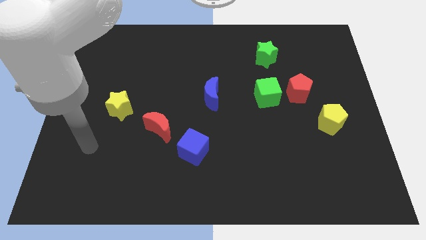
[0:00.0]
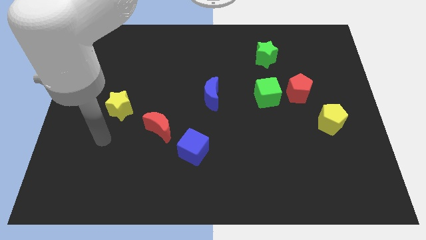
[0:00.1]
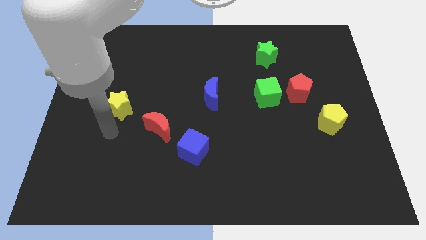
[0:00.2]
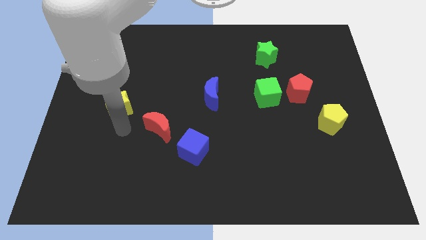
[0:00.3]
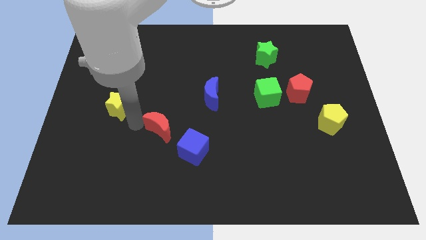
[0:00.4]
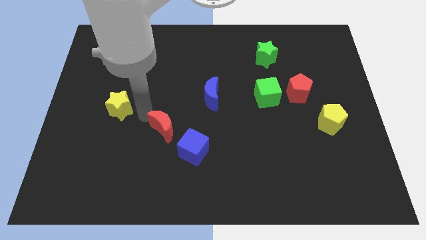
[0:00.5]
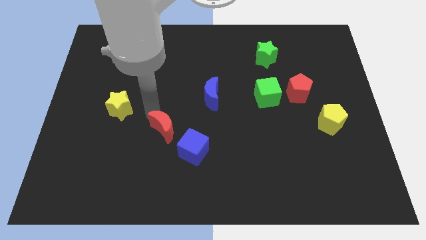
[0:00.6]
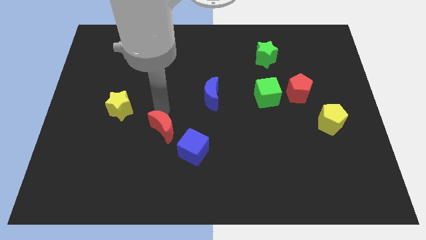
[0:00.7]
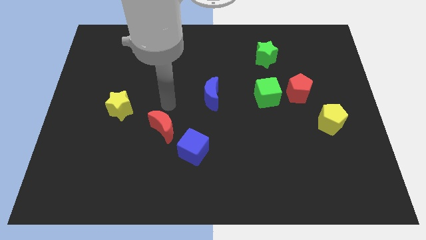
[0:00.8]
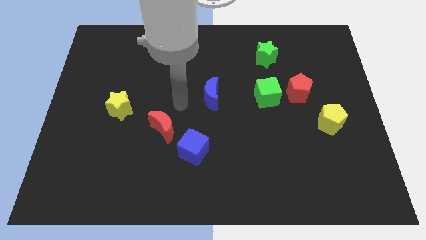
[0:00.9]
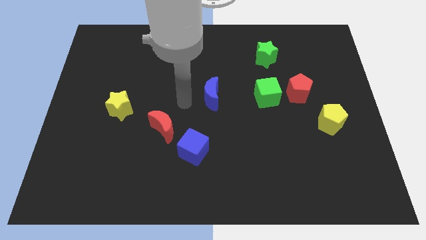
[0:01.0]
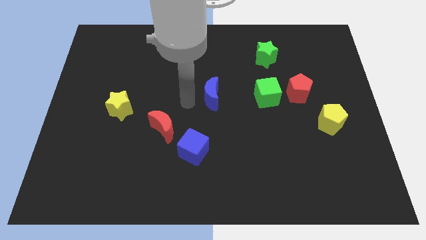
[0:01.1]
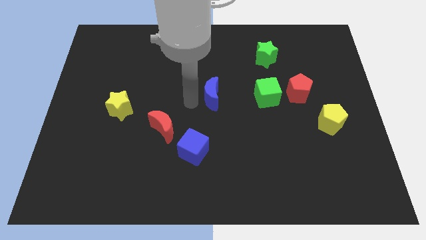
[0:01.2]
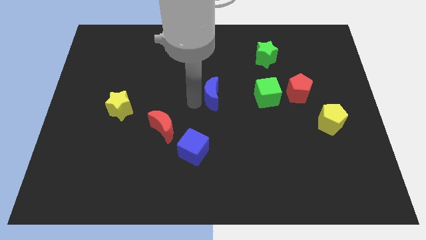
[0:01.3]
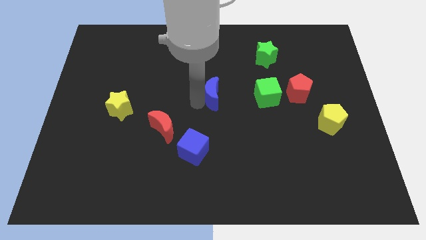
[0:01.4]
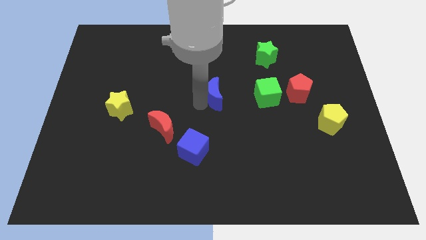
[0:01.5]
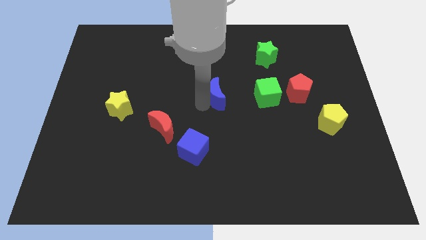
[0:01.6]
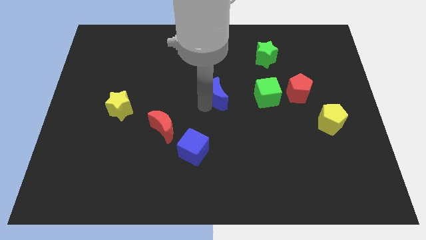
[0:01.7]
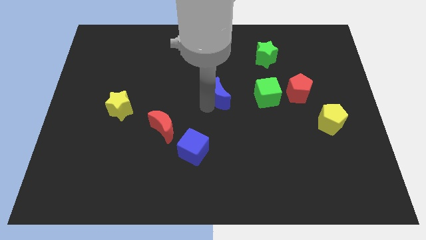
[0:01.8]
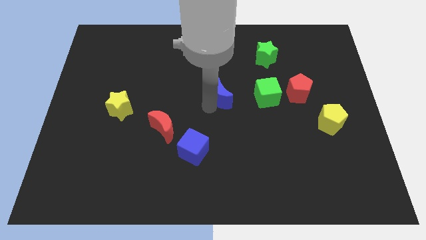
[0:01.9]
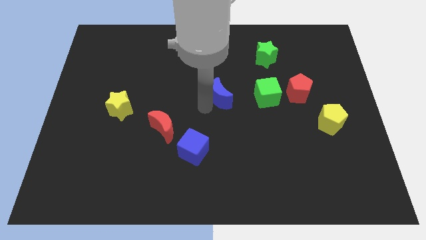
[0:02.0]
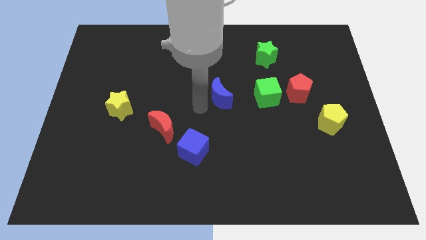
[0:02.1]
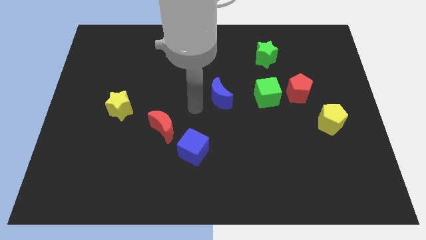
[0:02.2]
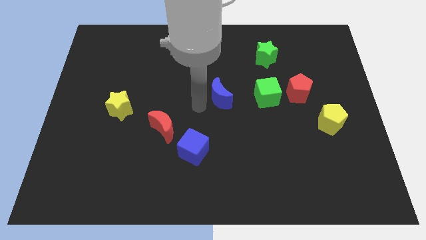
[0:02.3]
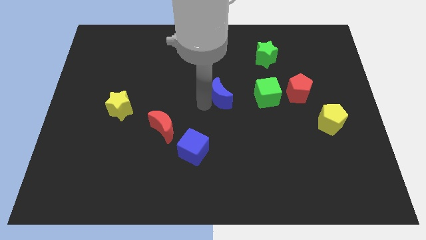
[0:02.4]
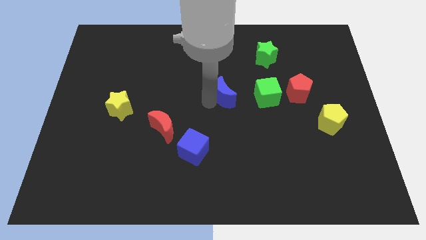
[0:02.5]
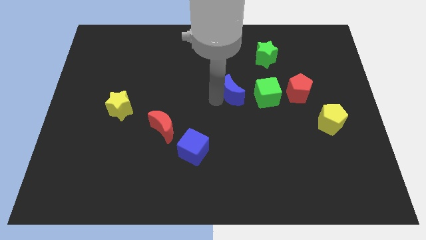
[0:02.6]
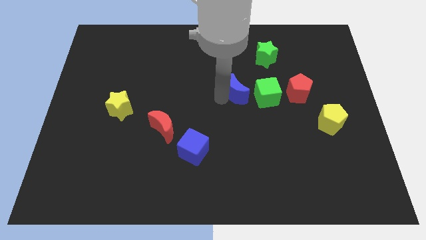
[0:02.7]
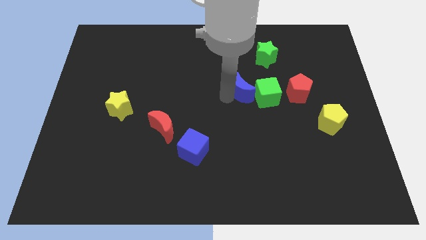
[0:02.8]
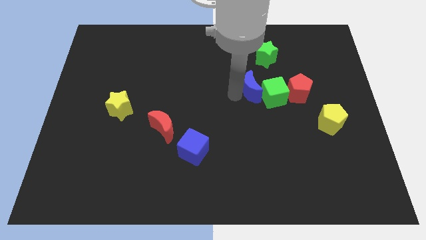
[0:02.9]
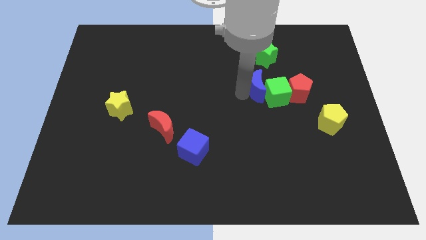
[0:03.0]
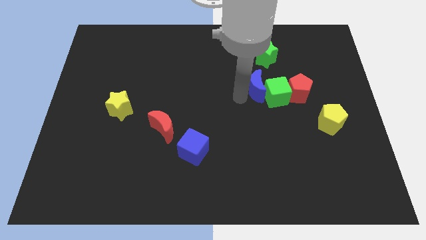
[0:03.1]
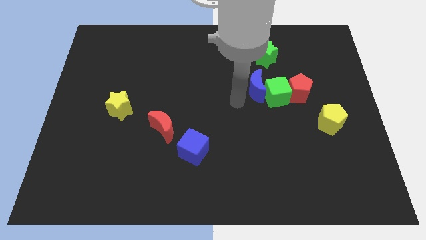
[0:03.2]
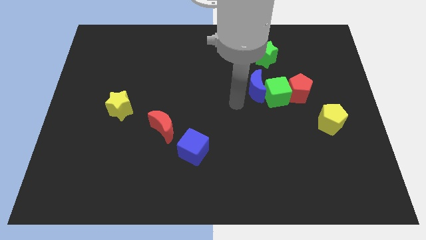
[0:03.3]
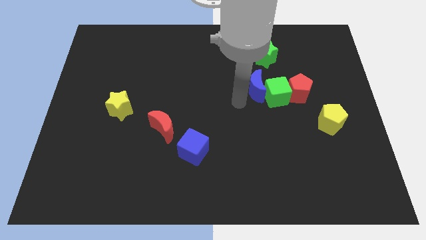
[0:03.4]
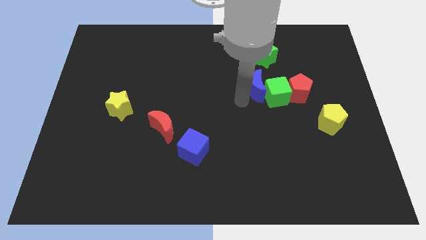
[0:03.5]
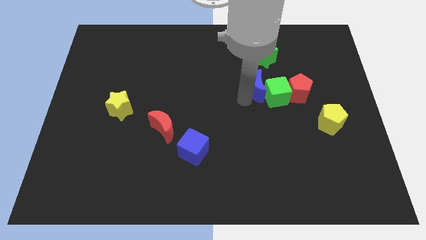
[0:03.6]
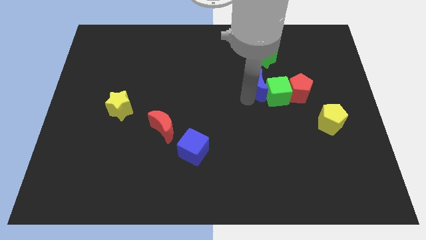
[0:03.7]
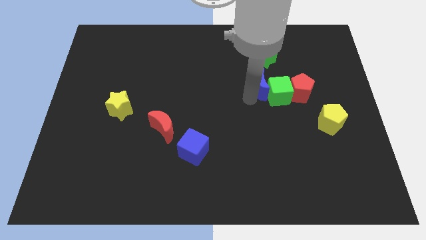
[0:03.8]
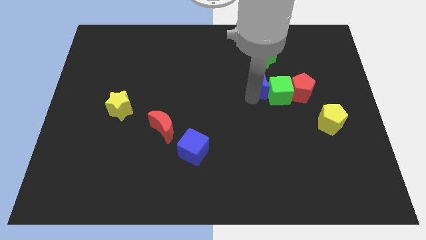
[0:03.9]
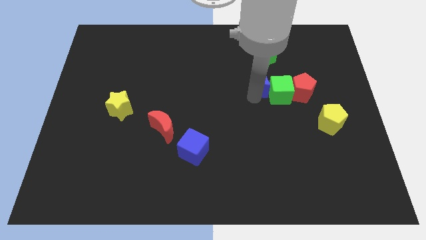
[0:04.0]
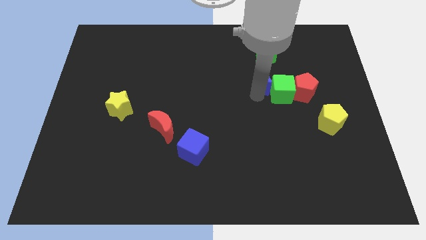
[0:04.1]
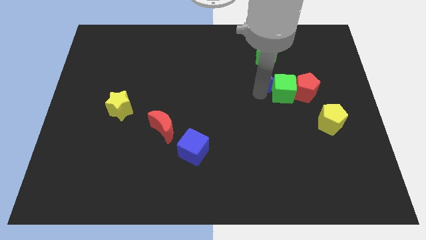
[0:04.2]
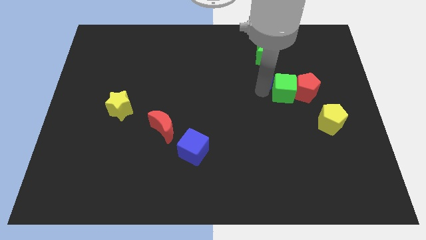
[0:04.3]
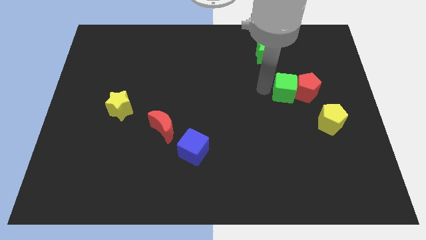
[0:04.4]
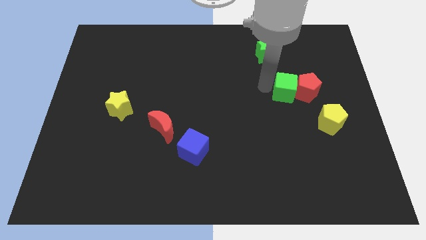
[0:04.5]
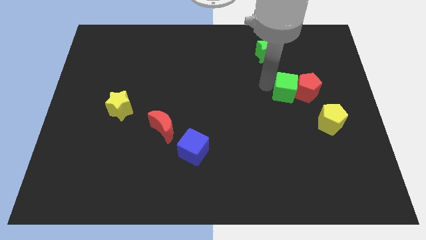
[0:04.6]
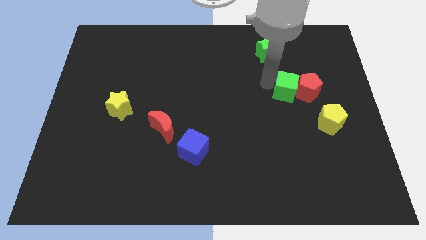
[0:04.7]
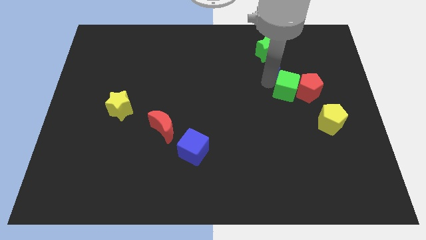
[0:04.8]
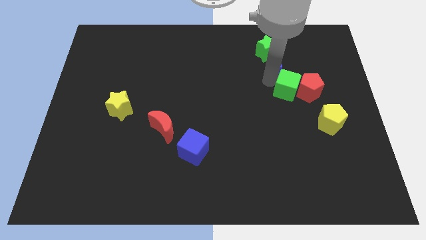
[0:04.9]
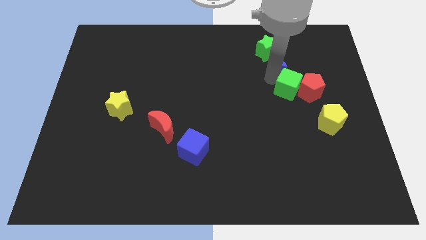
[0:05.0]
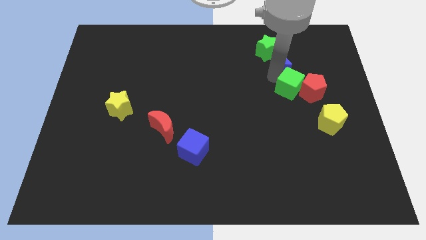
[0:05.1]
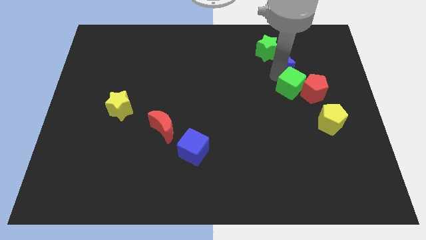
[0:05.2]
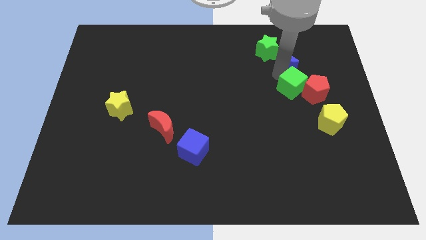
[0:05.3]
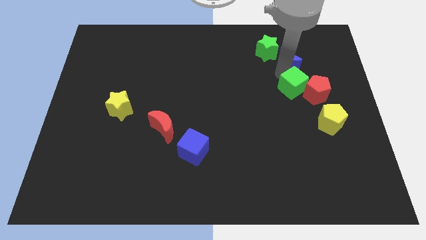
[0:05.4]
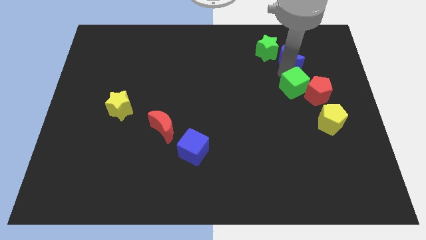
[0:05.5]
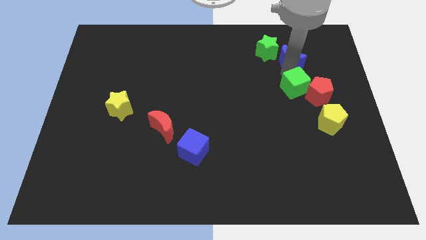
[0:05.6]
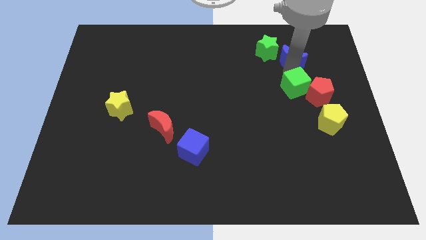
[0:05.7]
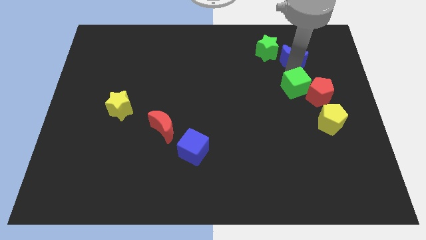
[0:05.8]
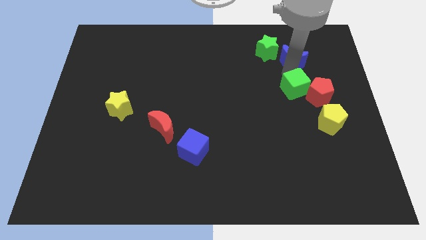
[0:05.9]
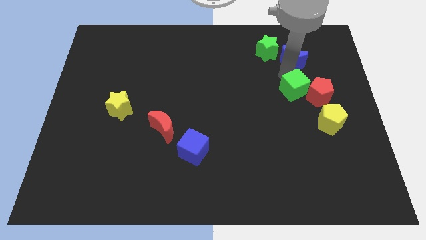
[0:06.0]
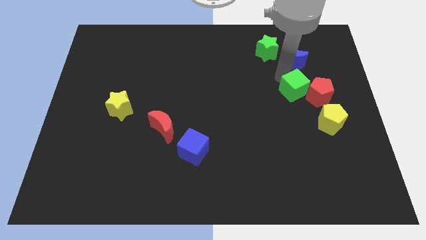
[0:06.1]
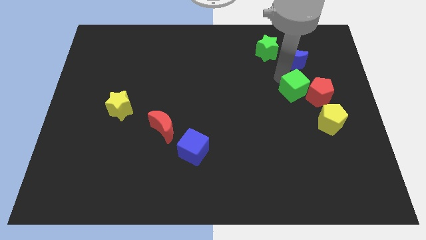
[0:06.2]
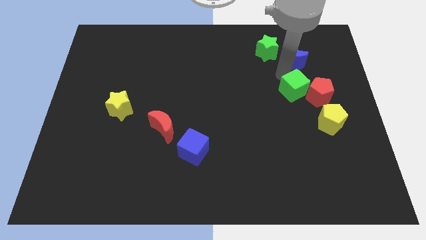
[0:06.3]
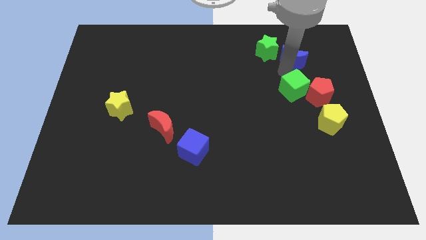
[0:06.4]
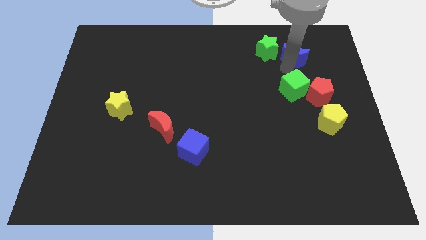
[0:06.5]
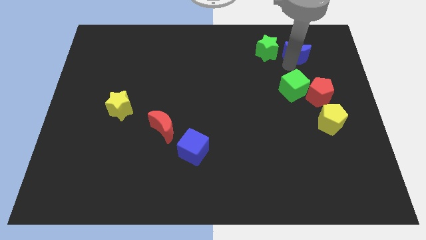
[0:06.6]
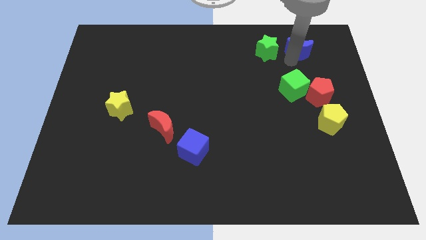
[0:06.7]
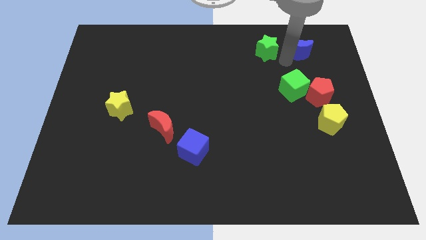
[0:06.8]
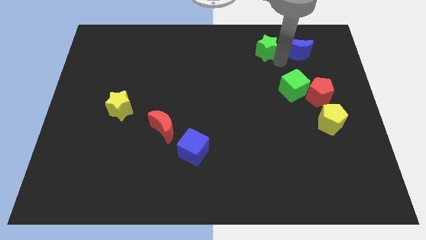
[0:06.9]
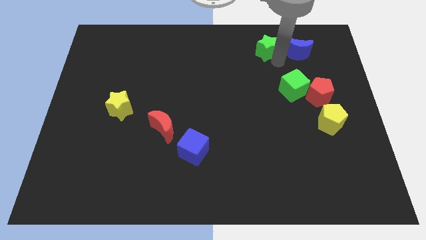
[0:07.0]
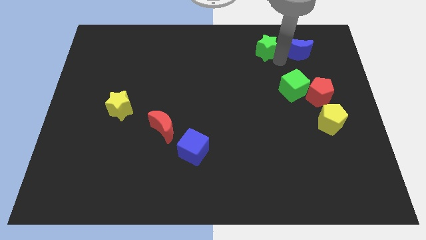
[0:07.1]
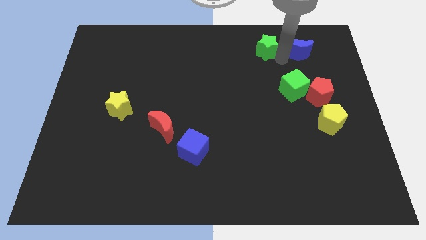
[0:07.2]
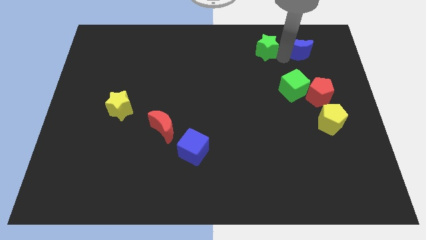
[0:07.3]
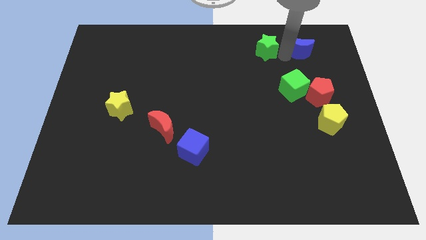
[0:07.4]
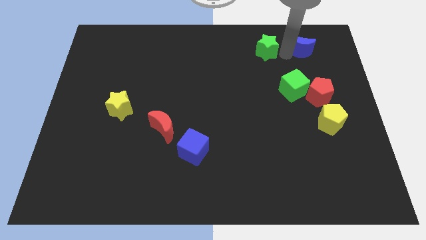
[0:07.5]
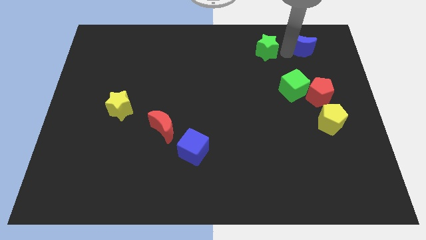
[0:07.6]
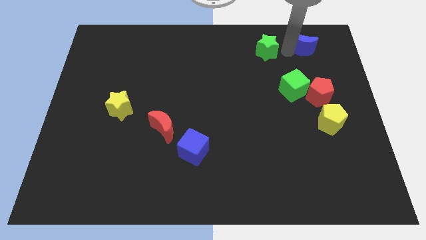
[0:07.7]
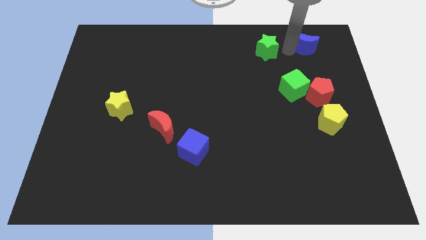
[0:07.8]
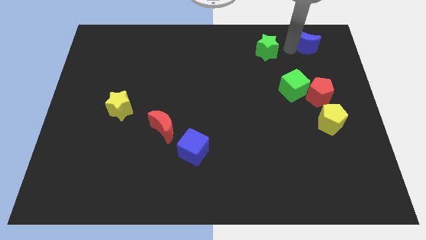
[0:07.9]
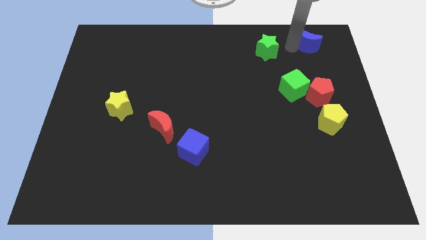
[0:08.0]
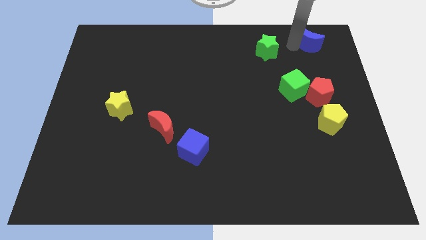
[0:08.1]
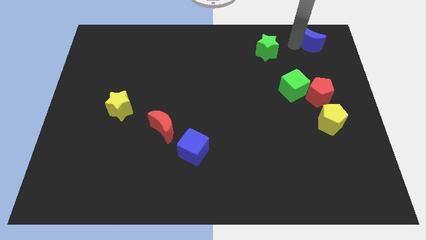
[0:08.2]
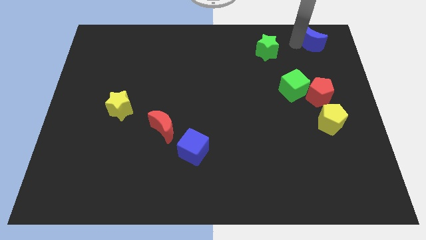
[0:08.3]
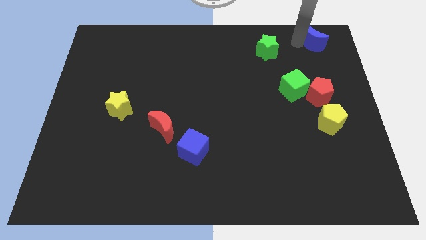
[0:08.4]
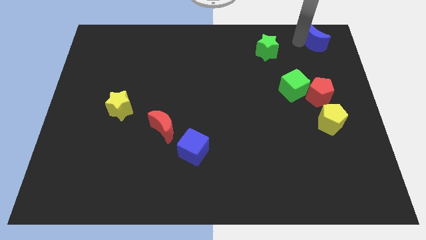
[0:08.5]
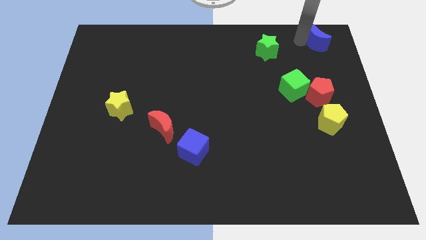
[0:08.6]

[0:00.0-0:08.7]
move the blue moon to the upper right corner
